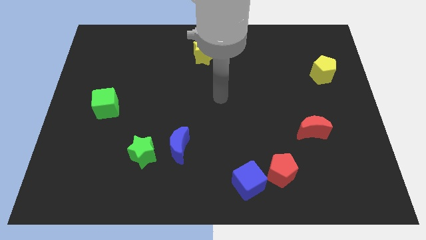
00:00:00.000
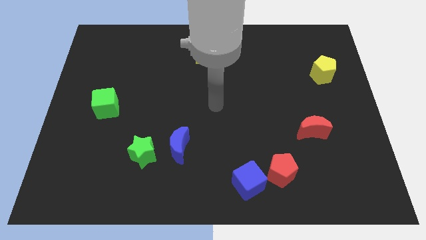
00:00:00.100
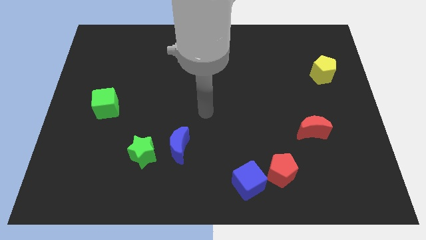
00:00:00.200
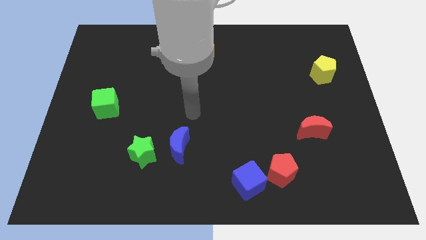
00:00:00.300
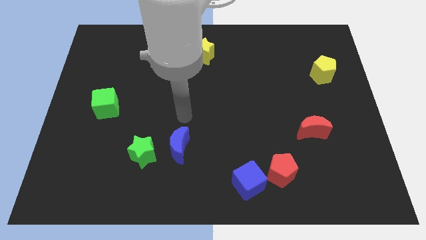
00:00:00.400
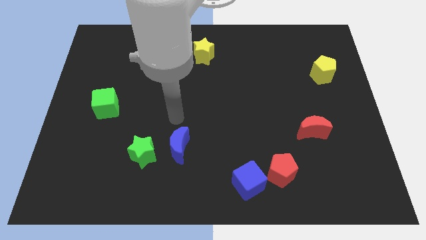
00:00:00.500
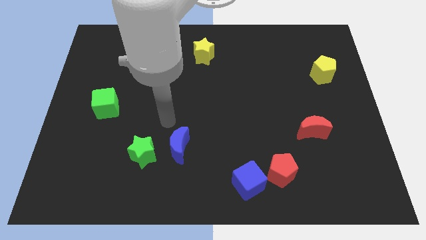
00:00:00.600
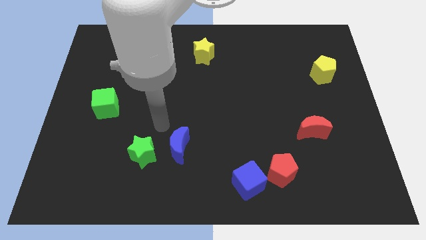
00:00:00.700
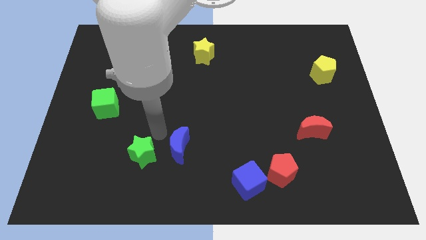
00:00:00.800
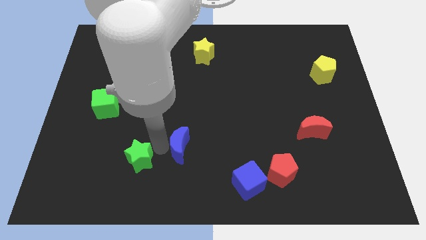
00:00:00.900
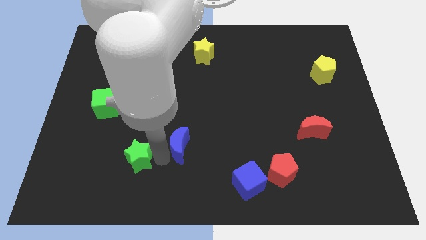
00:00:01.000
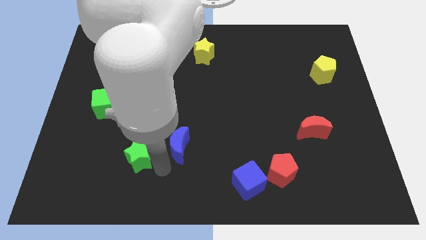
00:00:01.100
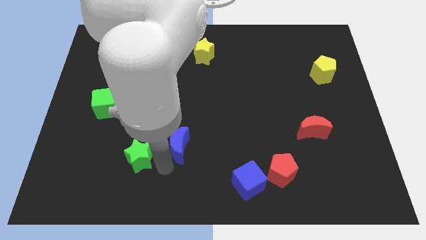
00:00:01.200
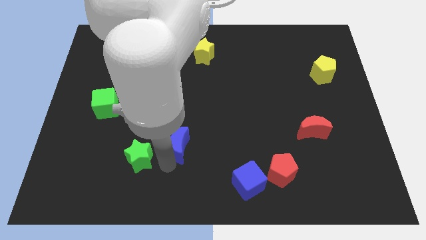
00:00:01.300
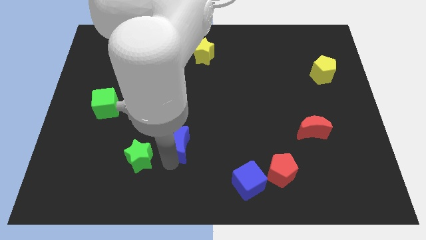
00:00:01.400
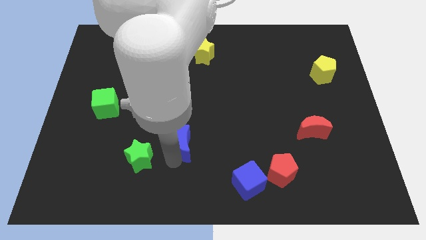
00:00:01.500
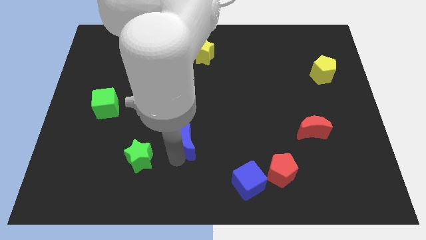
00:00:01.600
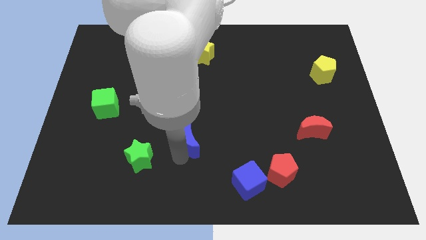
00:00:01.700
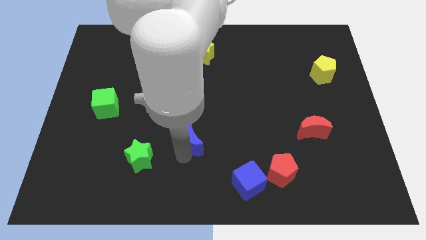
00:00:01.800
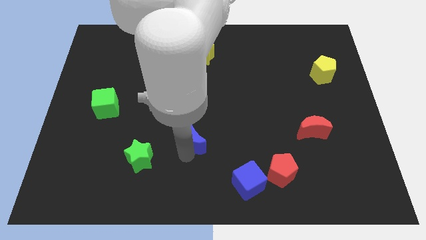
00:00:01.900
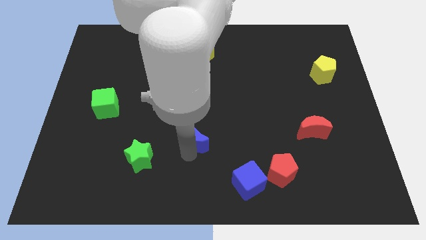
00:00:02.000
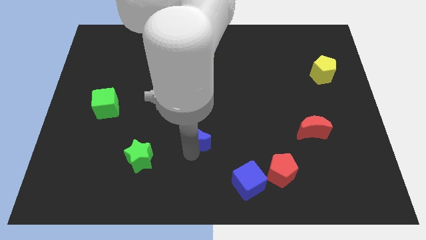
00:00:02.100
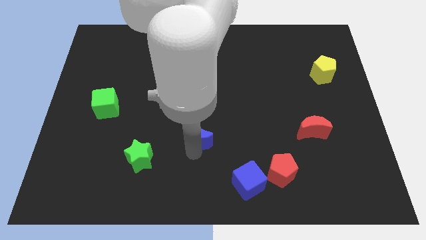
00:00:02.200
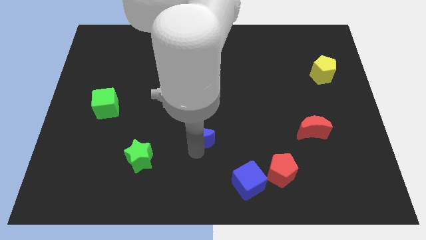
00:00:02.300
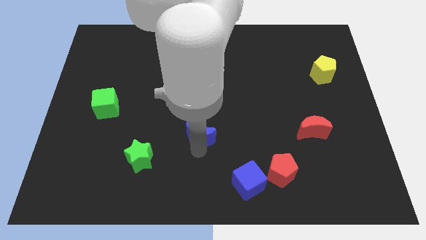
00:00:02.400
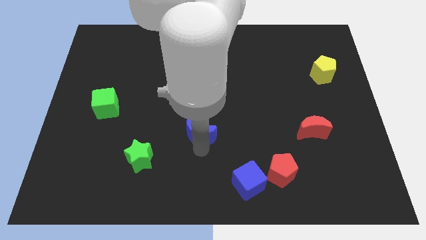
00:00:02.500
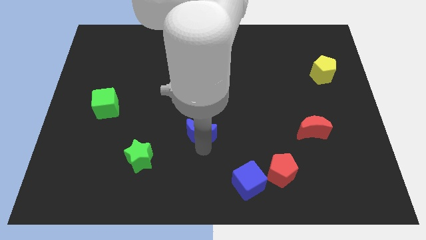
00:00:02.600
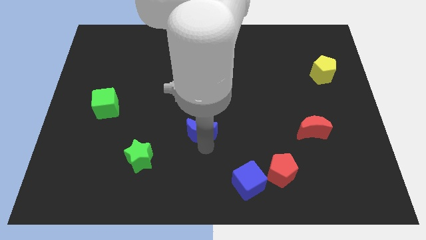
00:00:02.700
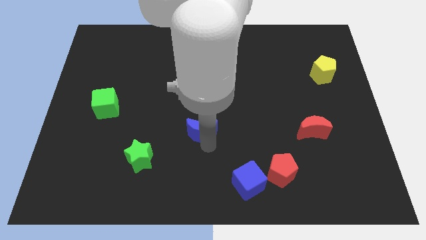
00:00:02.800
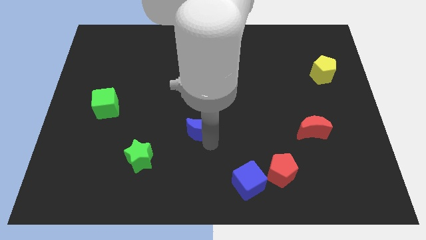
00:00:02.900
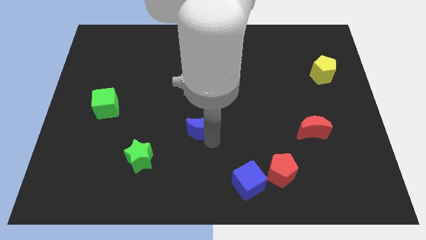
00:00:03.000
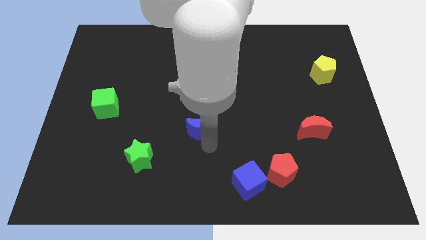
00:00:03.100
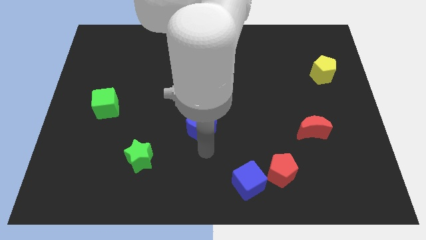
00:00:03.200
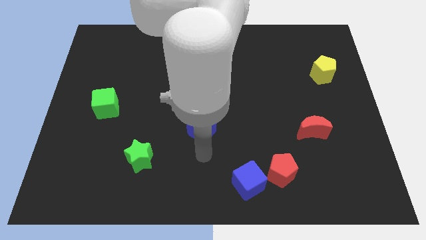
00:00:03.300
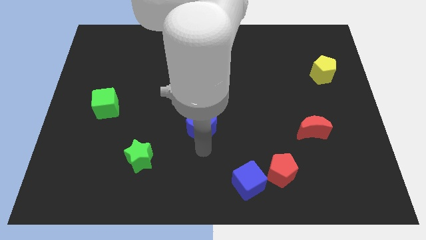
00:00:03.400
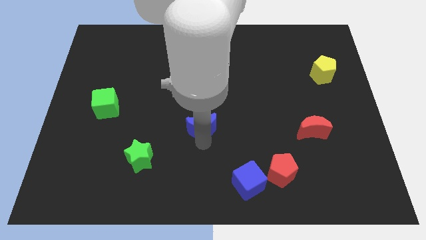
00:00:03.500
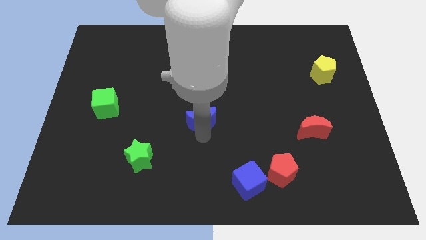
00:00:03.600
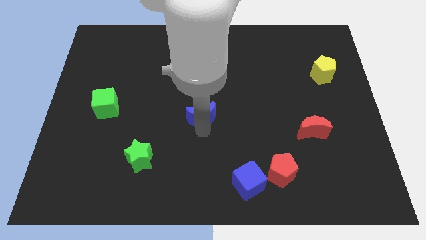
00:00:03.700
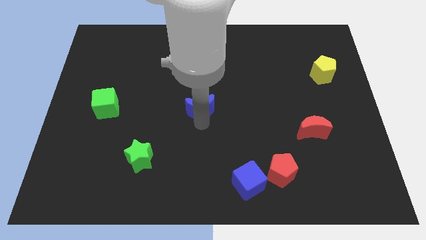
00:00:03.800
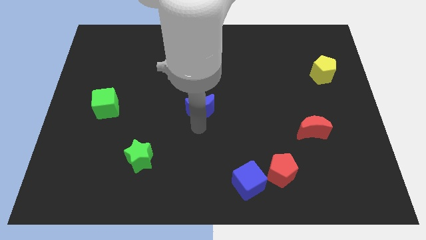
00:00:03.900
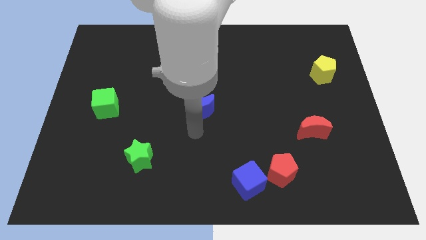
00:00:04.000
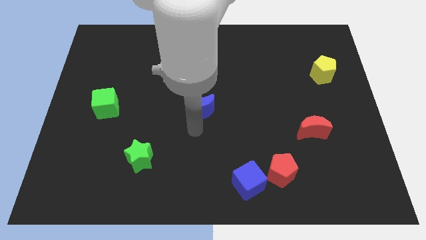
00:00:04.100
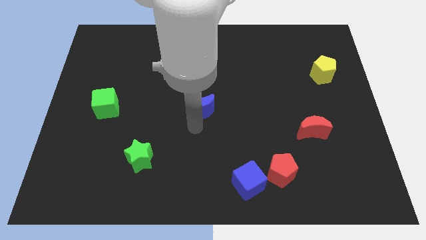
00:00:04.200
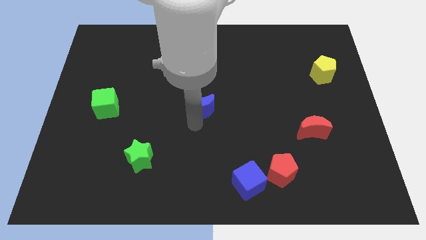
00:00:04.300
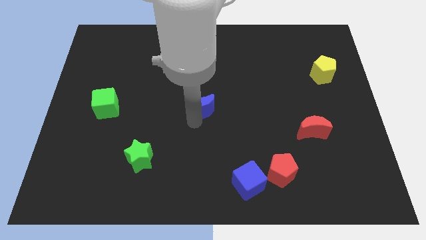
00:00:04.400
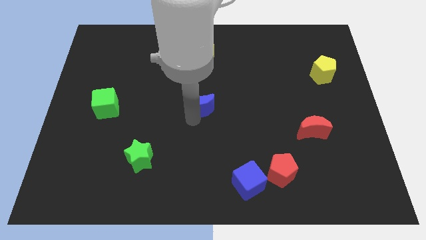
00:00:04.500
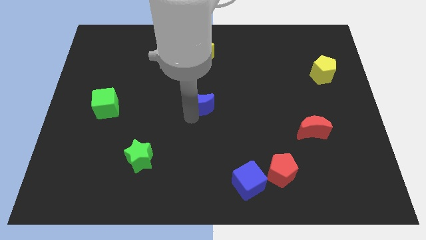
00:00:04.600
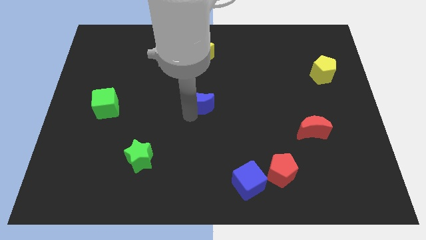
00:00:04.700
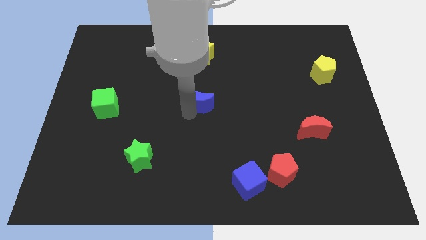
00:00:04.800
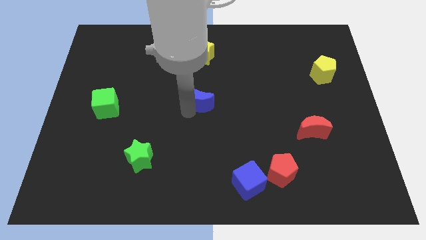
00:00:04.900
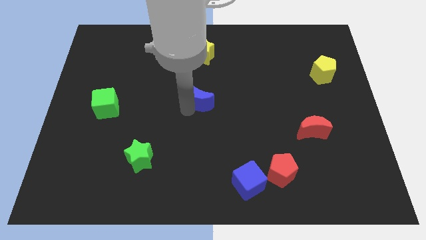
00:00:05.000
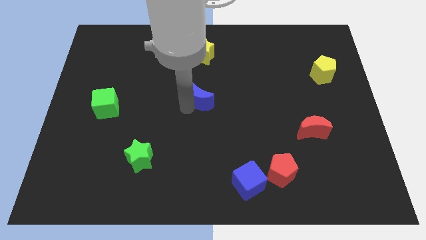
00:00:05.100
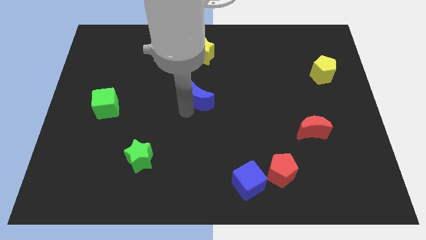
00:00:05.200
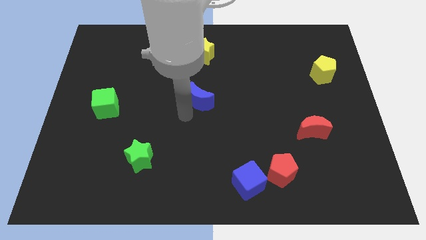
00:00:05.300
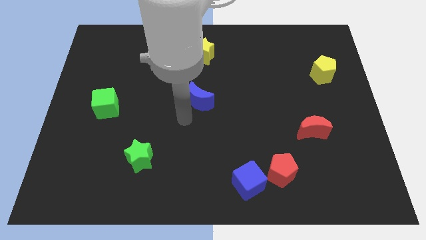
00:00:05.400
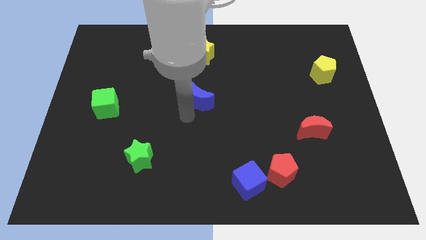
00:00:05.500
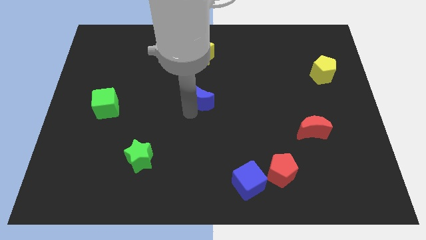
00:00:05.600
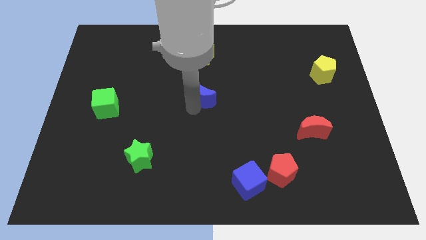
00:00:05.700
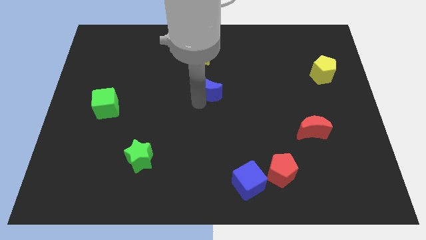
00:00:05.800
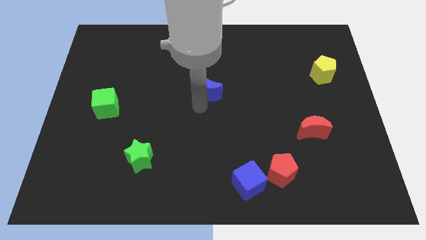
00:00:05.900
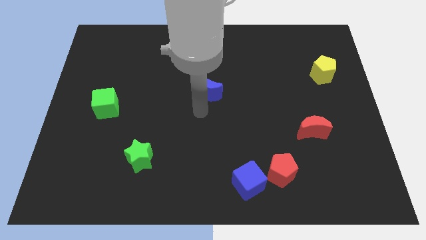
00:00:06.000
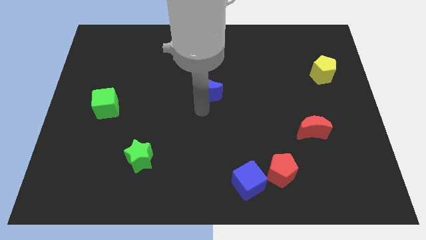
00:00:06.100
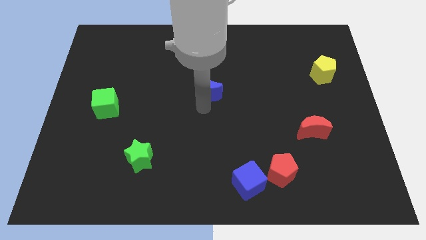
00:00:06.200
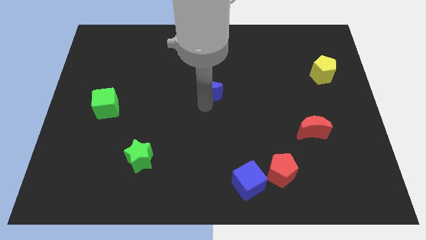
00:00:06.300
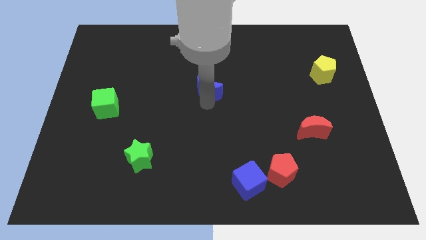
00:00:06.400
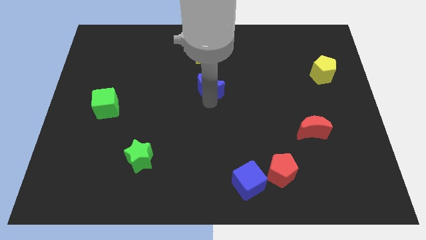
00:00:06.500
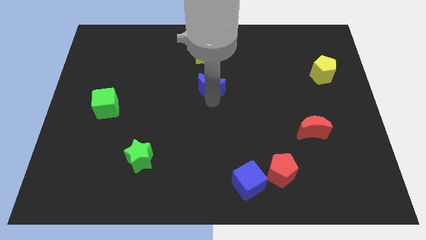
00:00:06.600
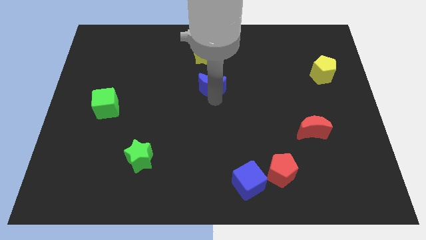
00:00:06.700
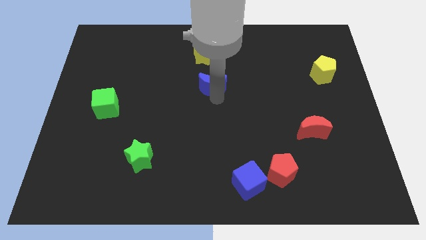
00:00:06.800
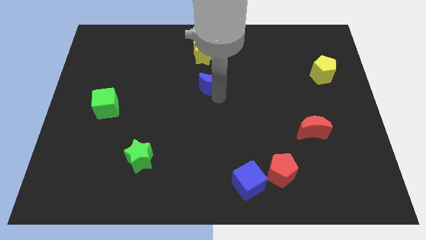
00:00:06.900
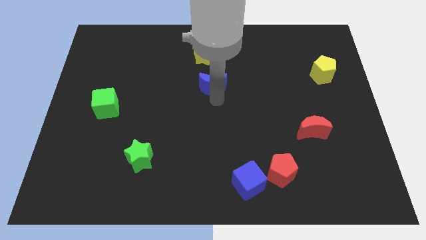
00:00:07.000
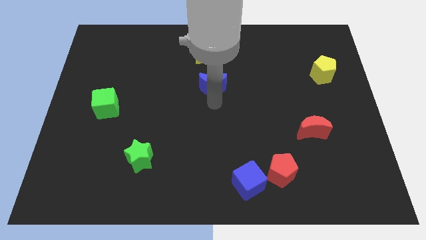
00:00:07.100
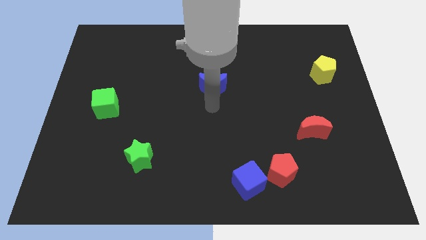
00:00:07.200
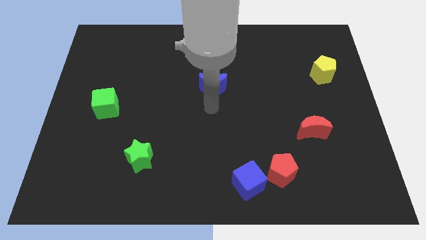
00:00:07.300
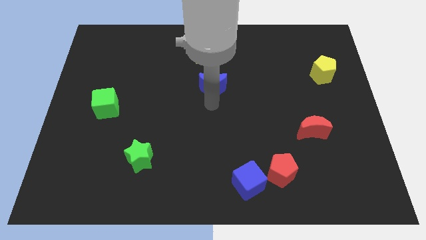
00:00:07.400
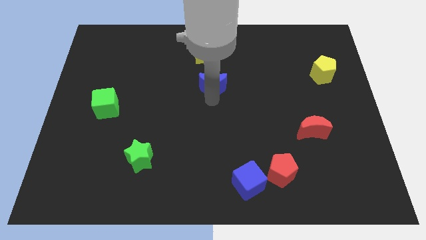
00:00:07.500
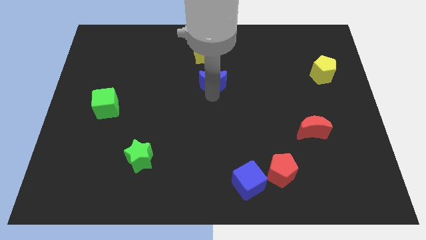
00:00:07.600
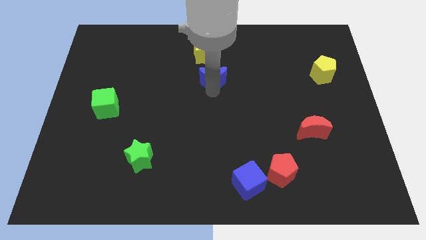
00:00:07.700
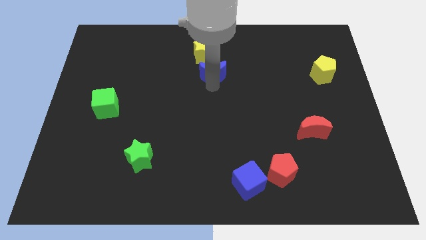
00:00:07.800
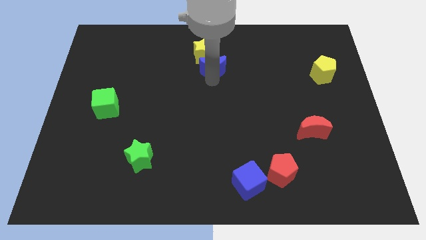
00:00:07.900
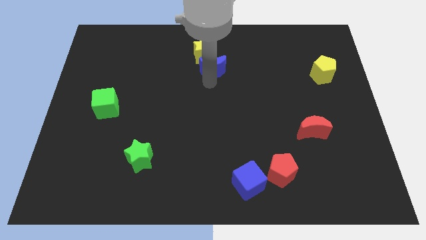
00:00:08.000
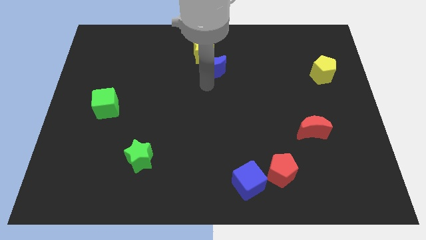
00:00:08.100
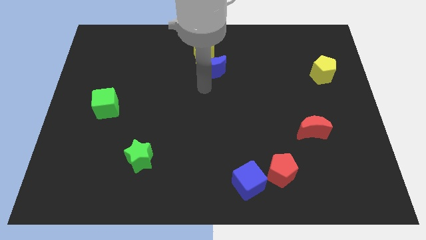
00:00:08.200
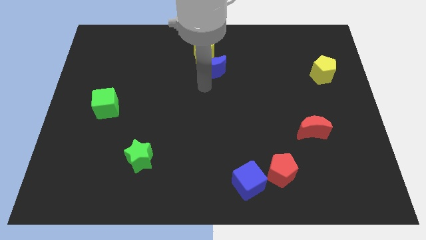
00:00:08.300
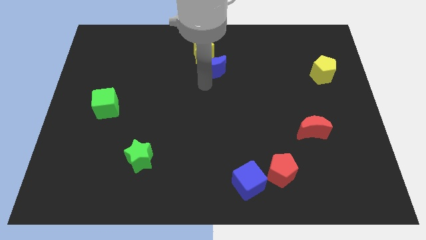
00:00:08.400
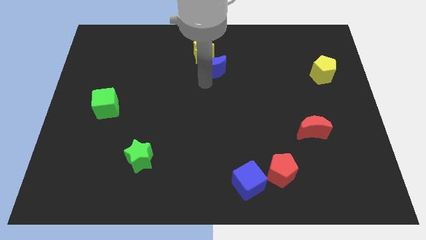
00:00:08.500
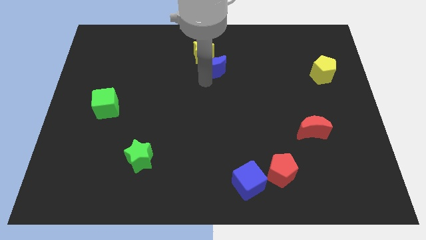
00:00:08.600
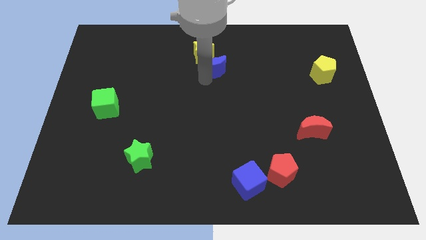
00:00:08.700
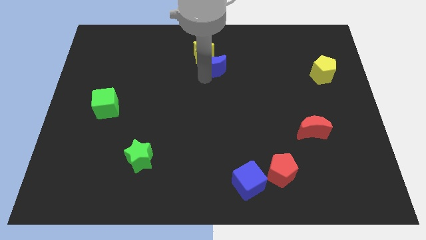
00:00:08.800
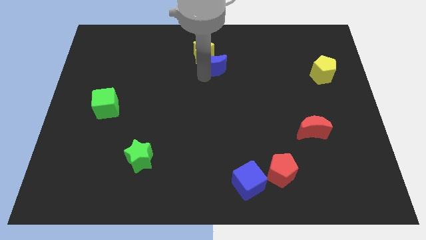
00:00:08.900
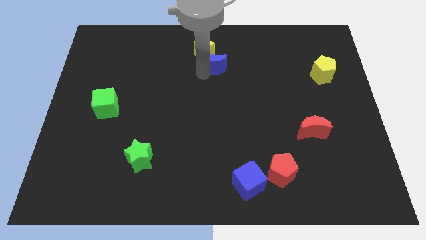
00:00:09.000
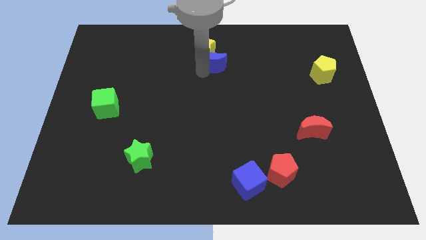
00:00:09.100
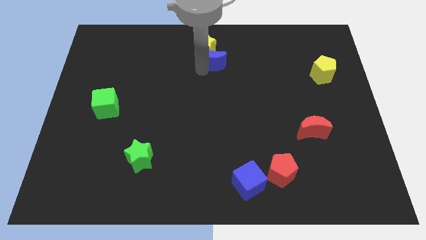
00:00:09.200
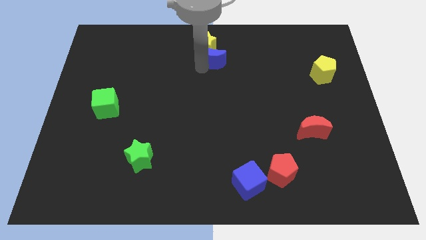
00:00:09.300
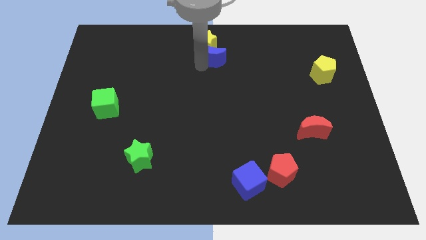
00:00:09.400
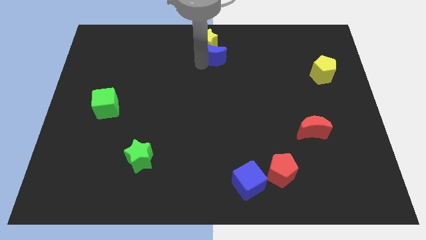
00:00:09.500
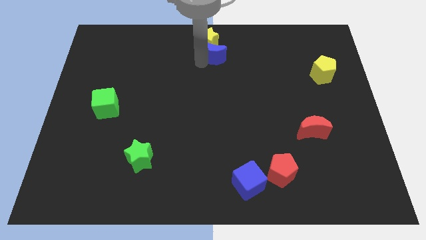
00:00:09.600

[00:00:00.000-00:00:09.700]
slide the blue moon to the towards your base
